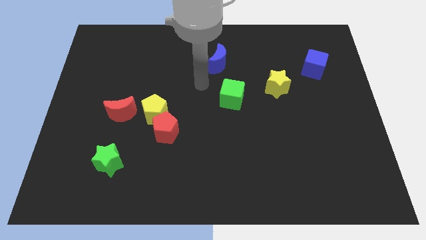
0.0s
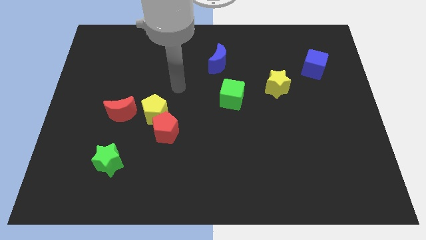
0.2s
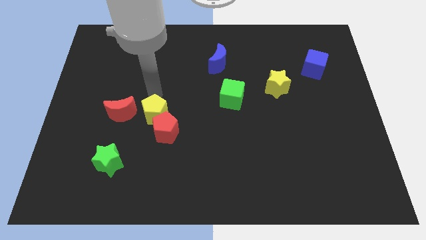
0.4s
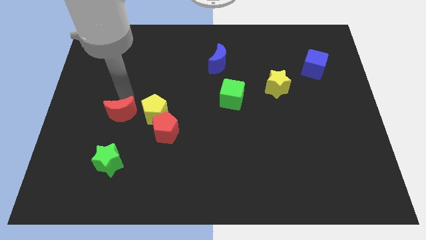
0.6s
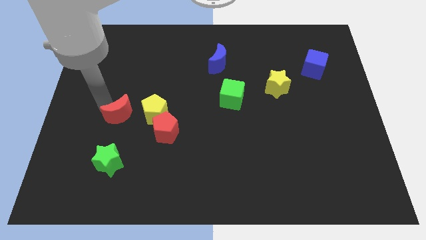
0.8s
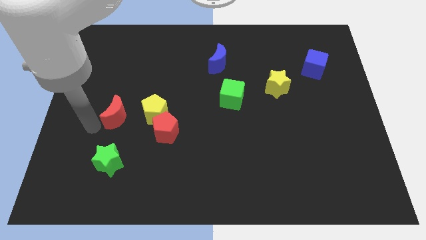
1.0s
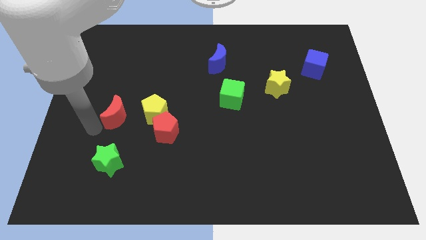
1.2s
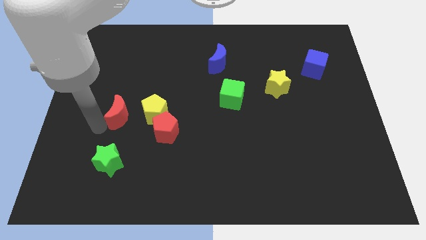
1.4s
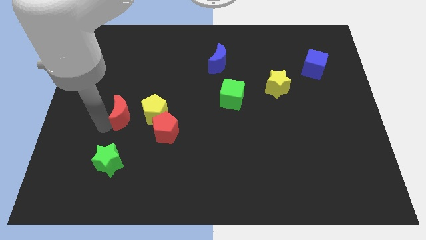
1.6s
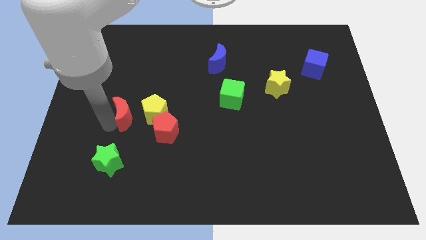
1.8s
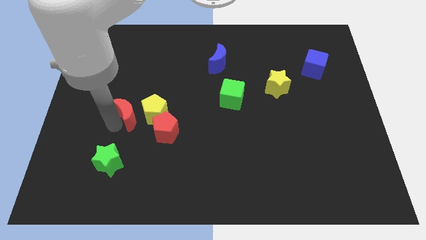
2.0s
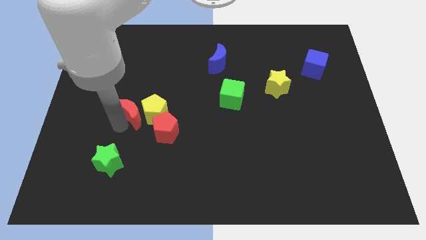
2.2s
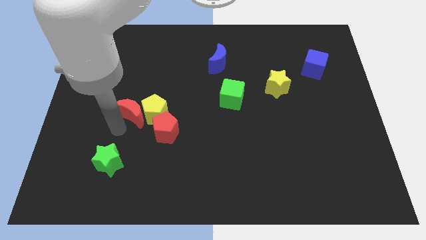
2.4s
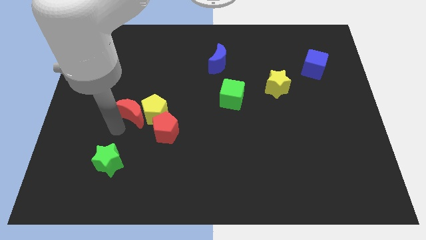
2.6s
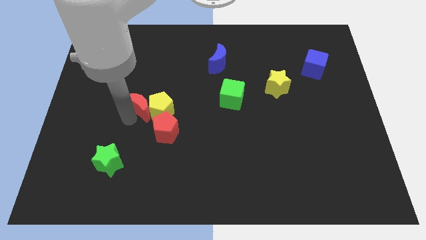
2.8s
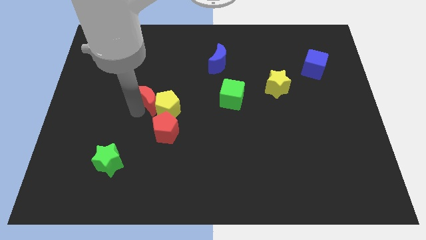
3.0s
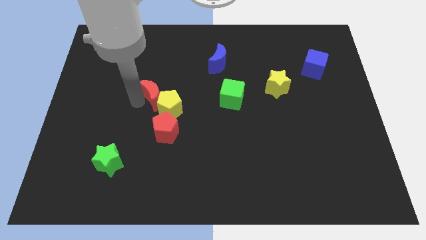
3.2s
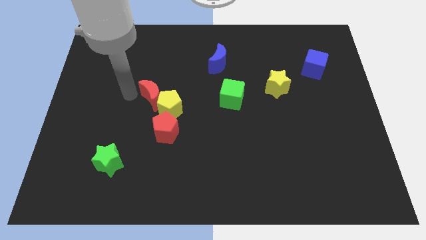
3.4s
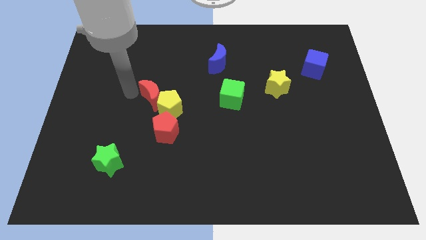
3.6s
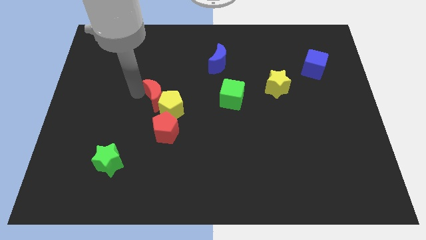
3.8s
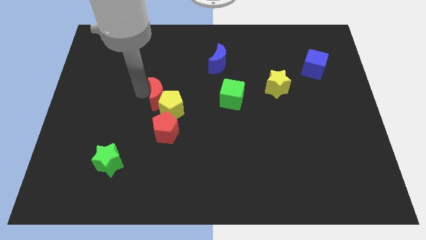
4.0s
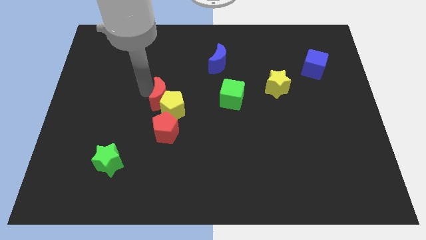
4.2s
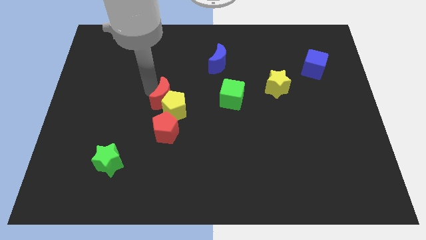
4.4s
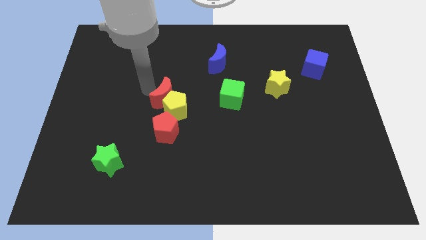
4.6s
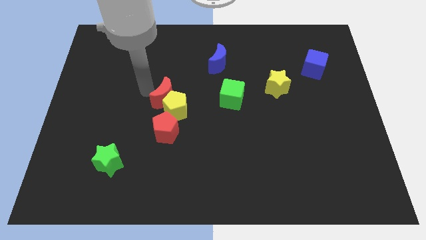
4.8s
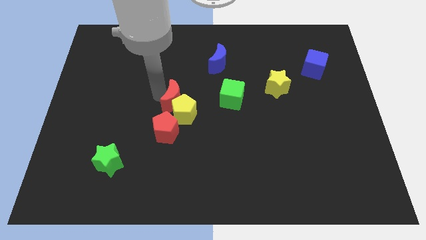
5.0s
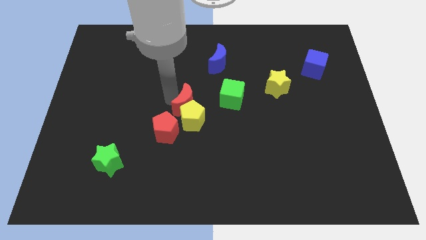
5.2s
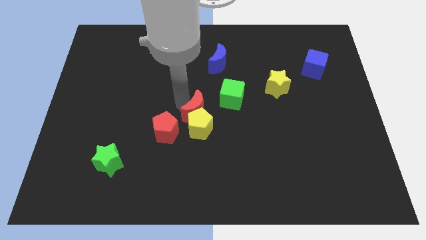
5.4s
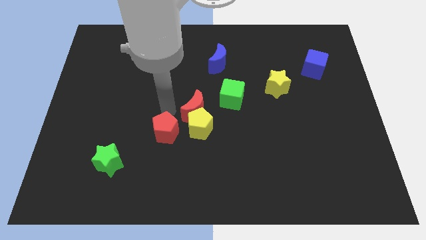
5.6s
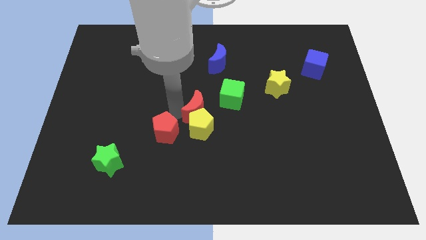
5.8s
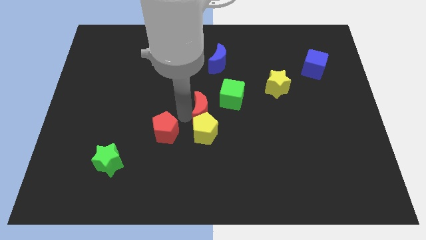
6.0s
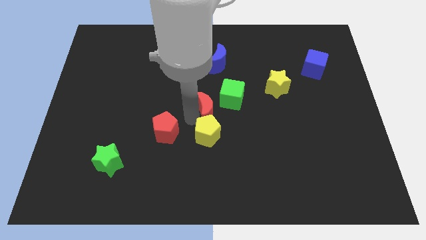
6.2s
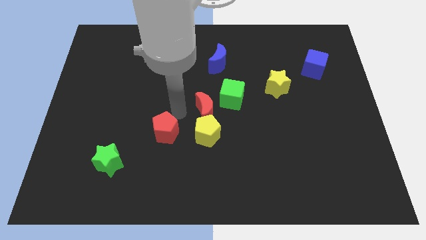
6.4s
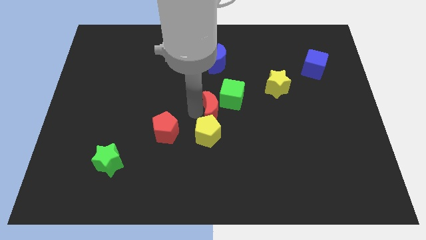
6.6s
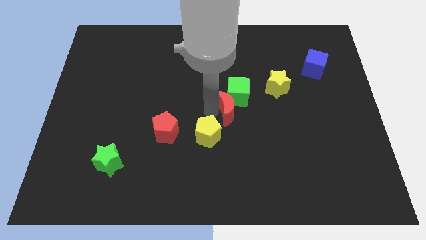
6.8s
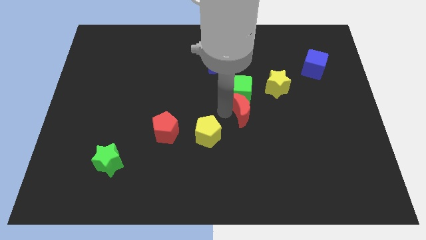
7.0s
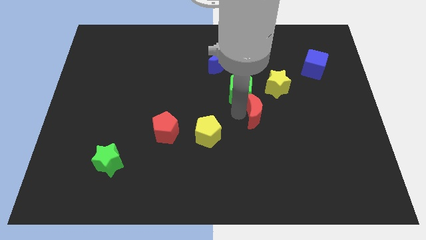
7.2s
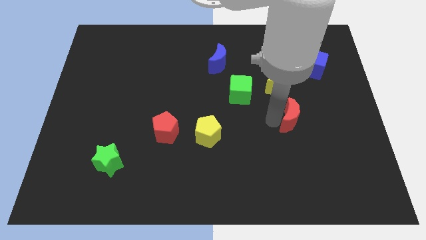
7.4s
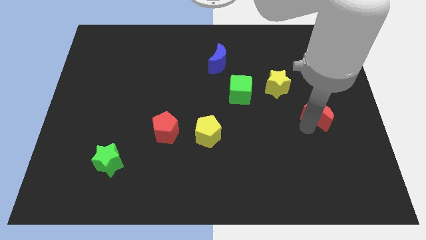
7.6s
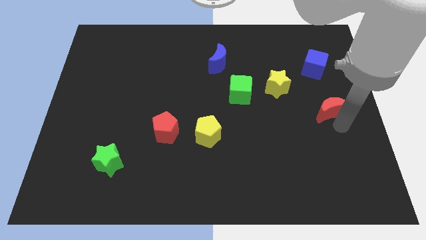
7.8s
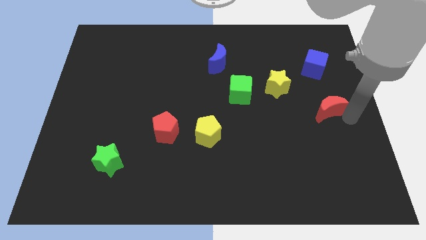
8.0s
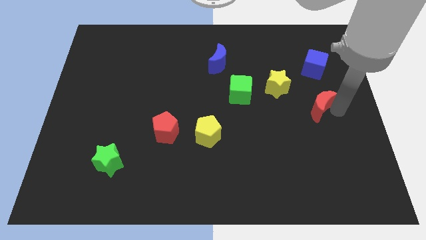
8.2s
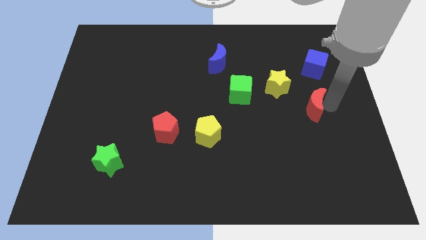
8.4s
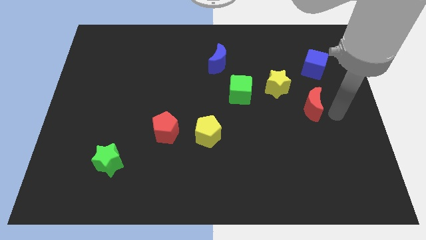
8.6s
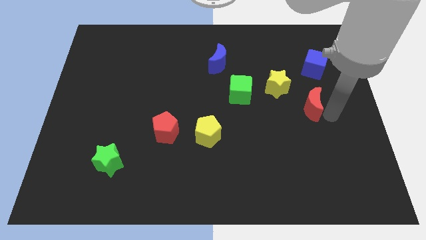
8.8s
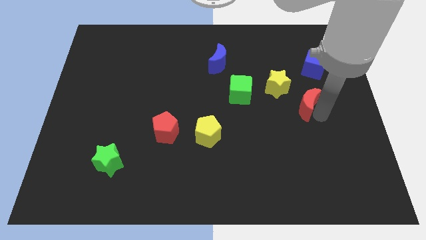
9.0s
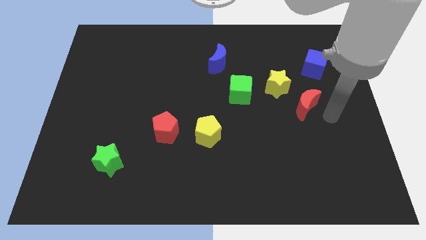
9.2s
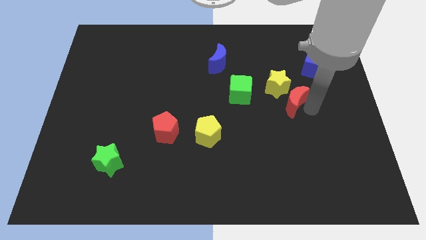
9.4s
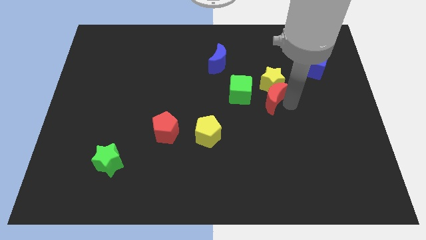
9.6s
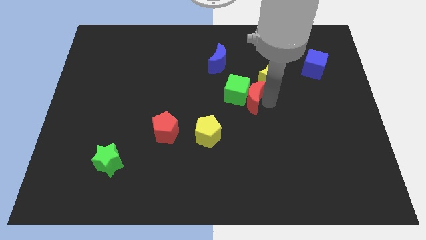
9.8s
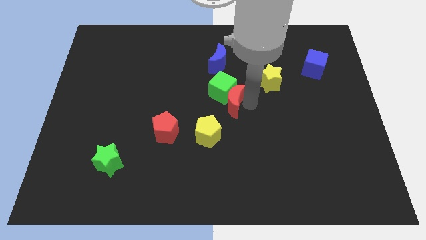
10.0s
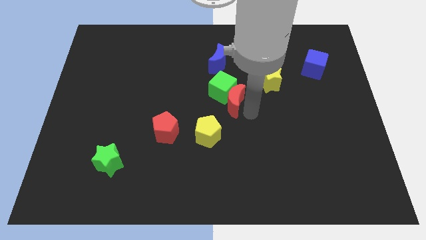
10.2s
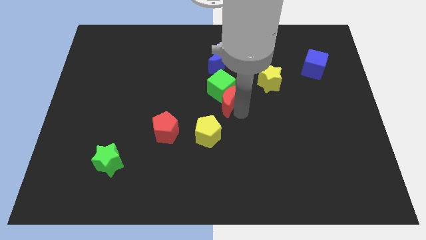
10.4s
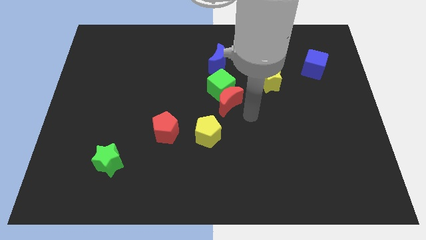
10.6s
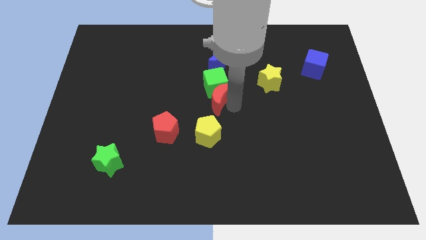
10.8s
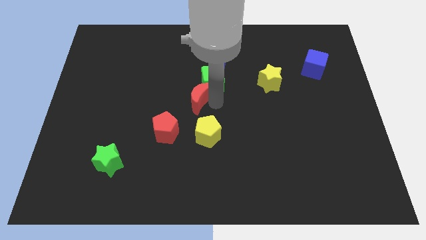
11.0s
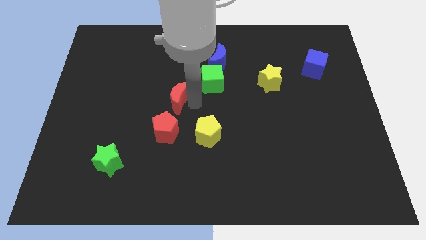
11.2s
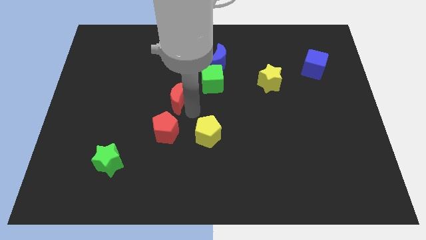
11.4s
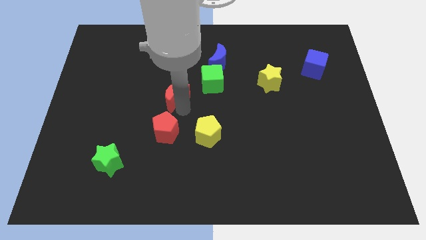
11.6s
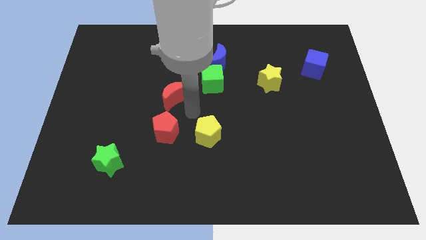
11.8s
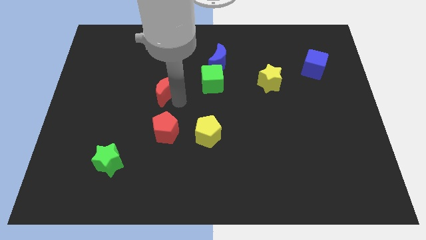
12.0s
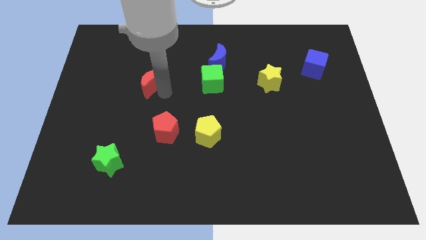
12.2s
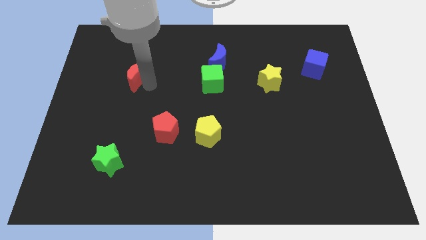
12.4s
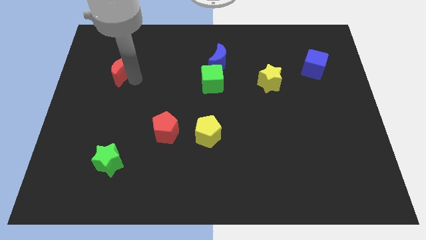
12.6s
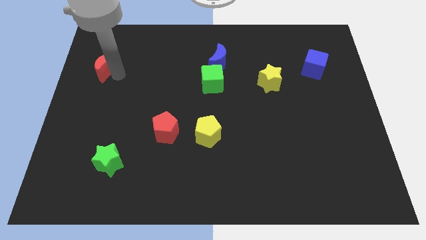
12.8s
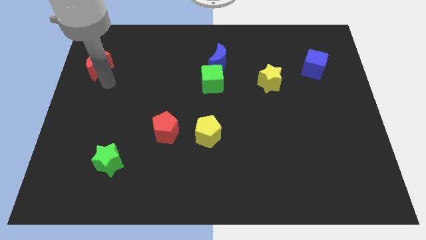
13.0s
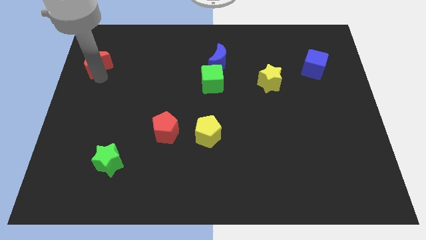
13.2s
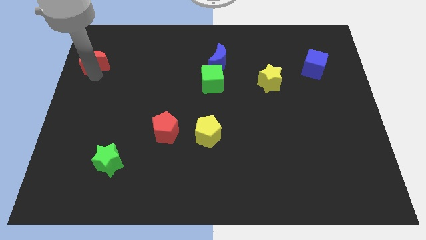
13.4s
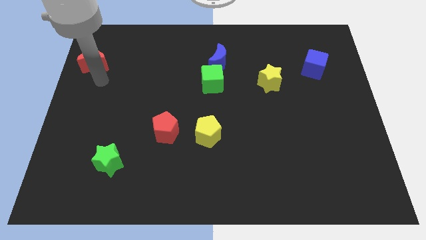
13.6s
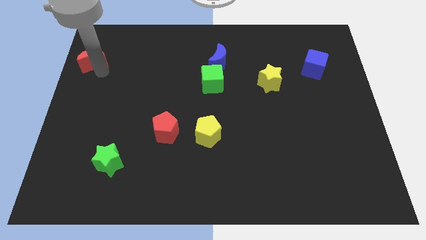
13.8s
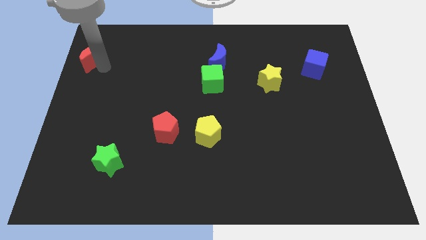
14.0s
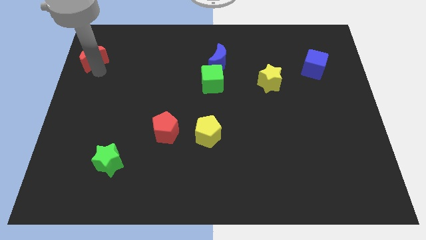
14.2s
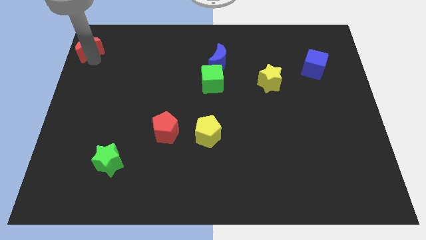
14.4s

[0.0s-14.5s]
slide the red moon to the top left corner
